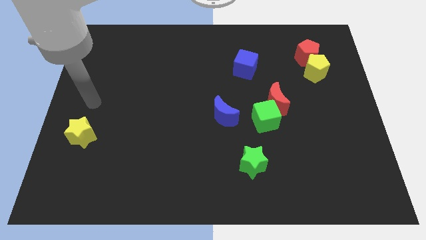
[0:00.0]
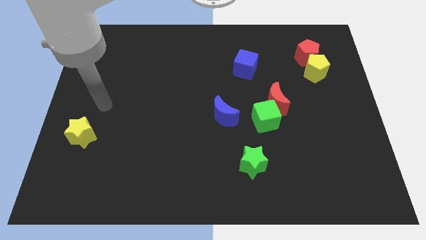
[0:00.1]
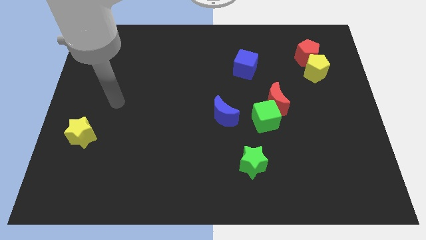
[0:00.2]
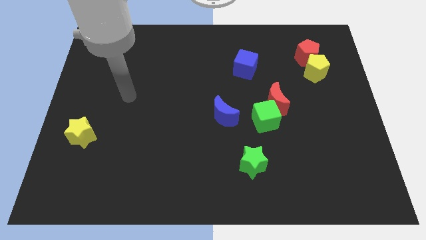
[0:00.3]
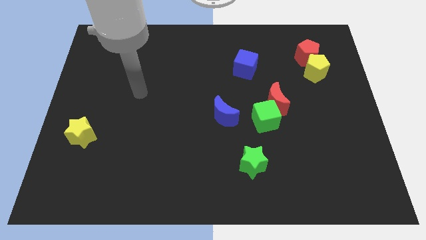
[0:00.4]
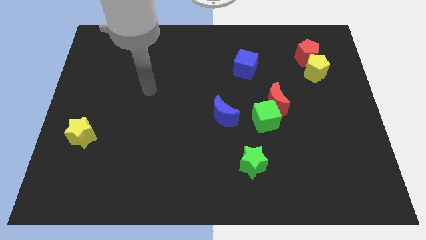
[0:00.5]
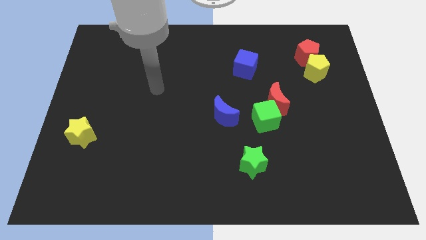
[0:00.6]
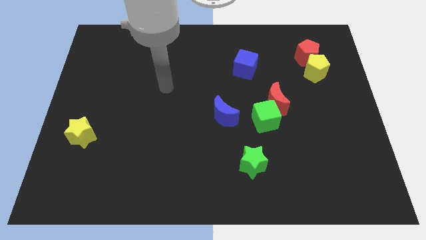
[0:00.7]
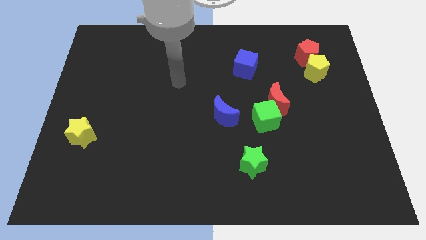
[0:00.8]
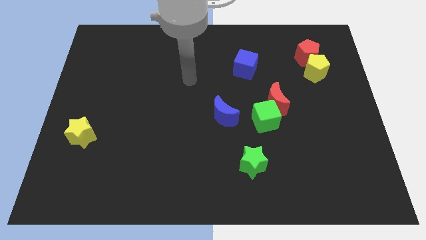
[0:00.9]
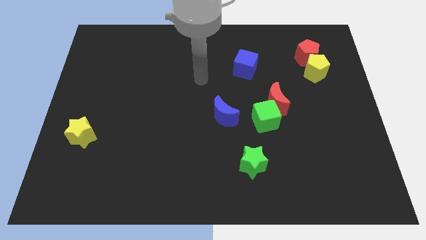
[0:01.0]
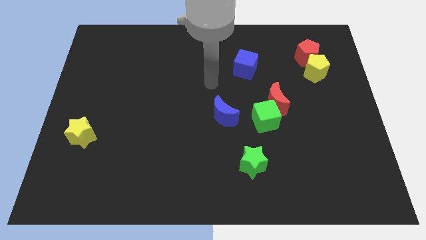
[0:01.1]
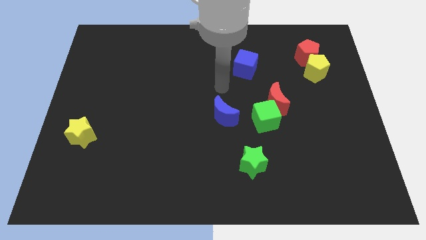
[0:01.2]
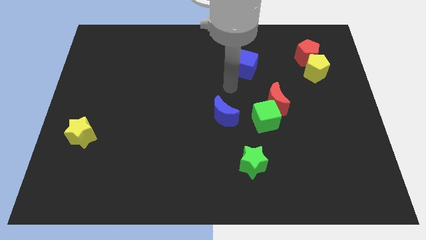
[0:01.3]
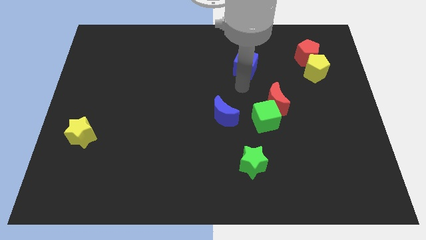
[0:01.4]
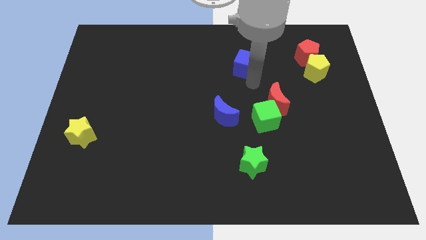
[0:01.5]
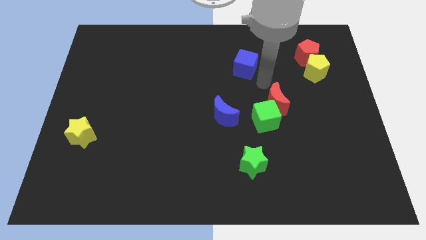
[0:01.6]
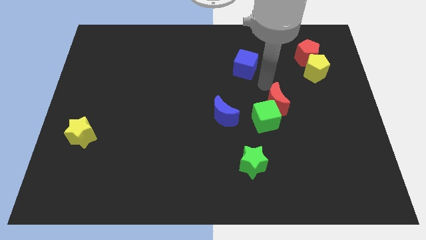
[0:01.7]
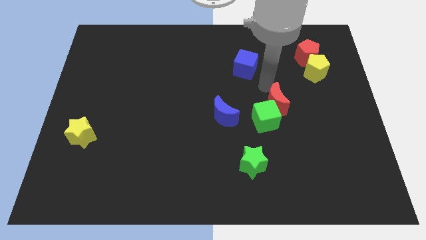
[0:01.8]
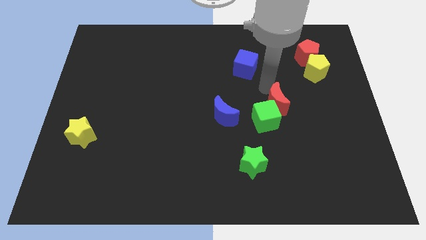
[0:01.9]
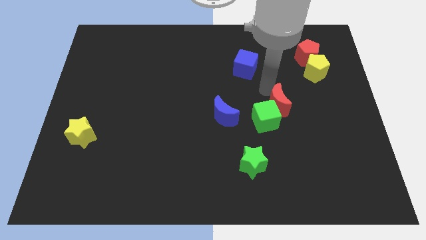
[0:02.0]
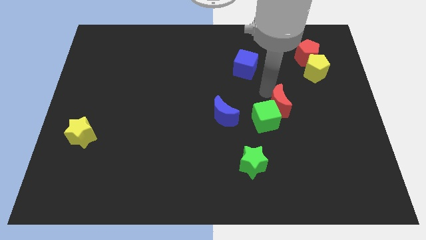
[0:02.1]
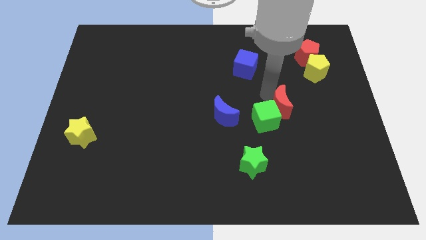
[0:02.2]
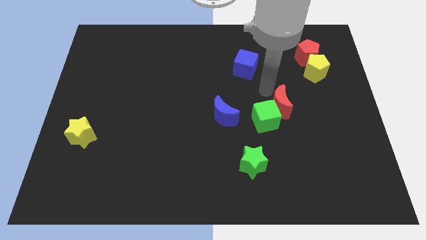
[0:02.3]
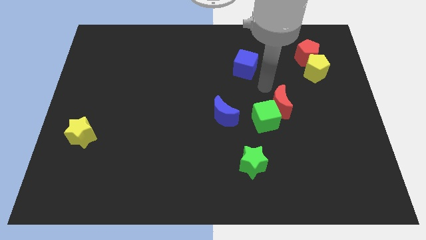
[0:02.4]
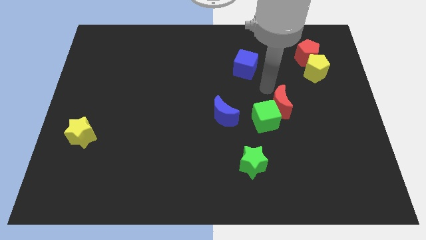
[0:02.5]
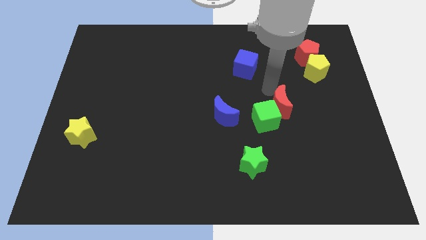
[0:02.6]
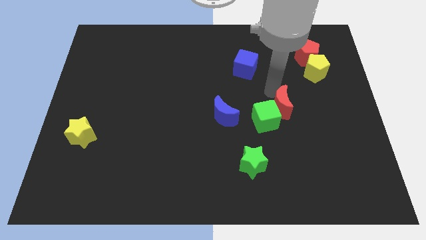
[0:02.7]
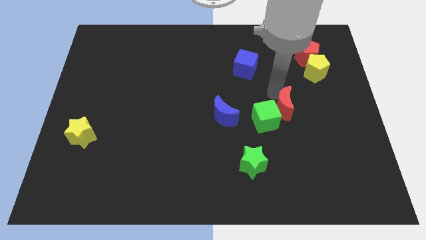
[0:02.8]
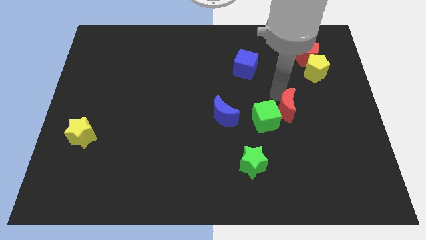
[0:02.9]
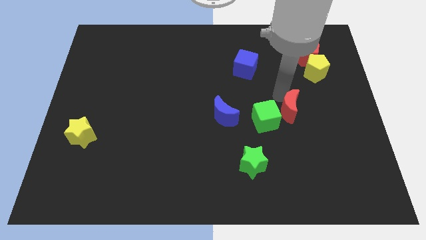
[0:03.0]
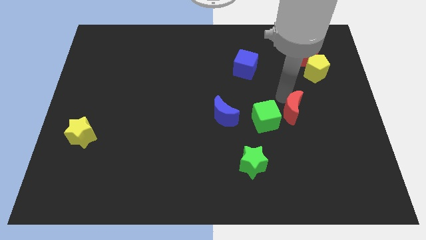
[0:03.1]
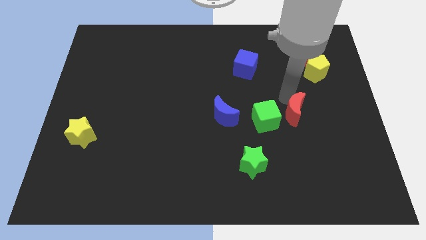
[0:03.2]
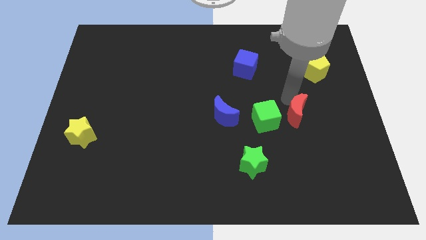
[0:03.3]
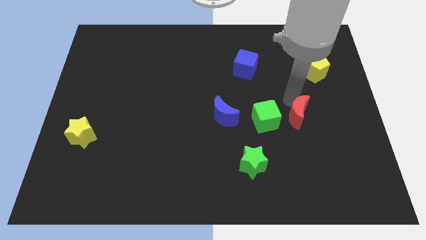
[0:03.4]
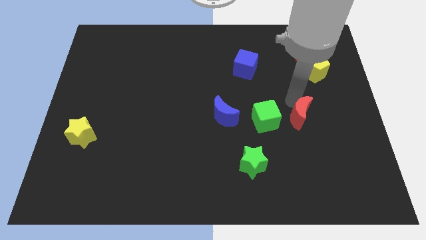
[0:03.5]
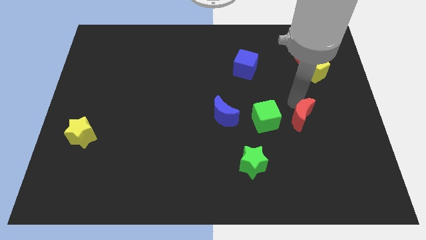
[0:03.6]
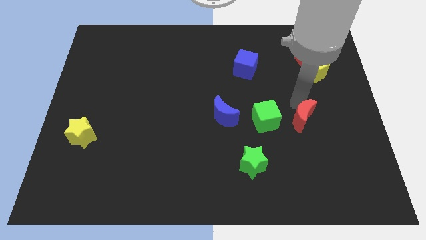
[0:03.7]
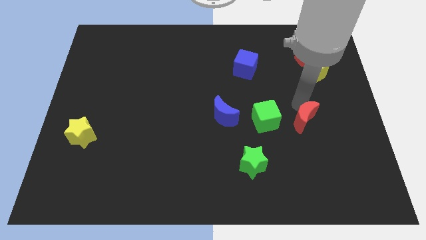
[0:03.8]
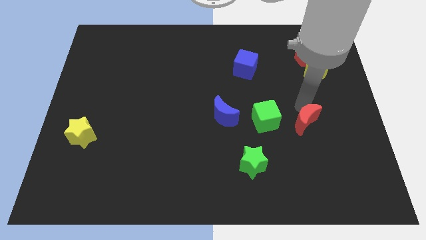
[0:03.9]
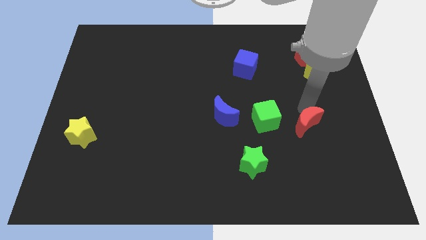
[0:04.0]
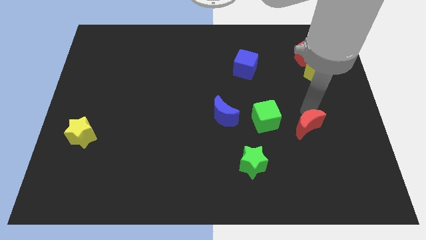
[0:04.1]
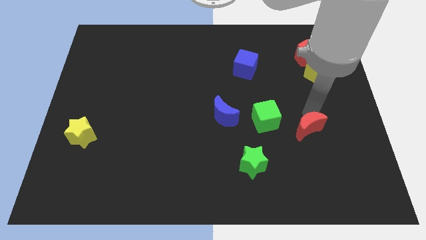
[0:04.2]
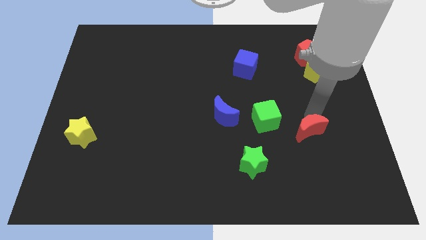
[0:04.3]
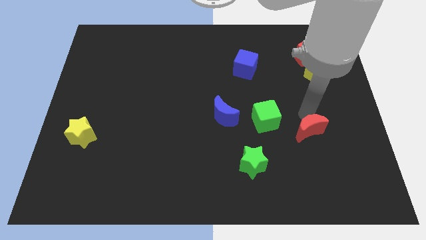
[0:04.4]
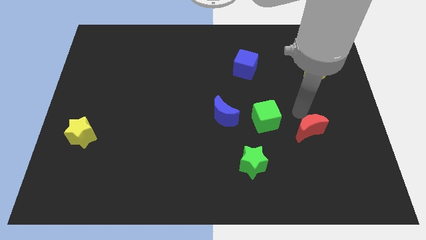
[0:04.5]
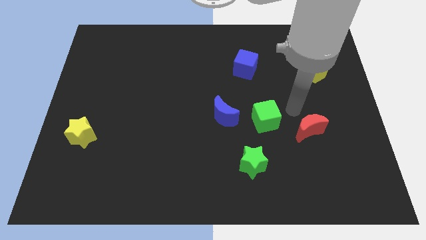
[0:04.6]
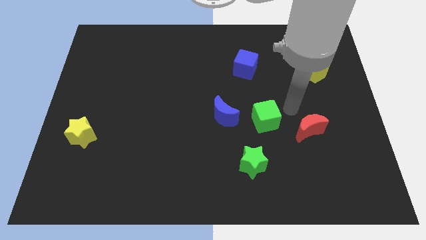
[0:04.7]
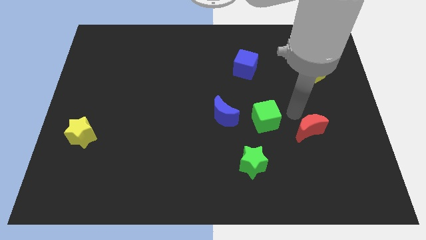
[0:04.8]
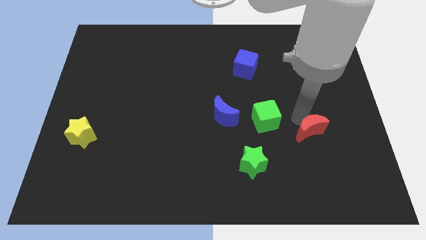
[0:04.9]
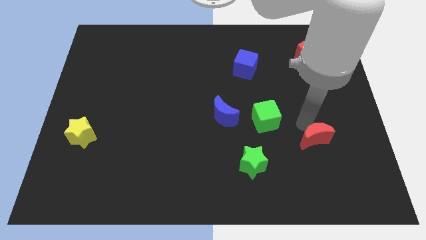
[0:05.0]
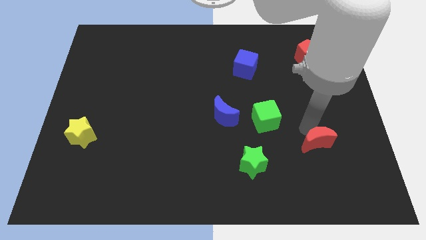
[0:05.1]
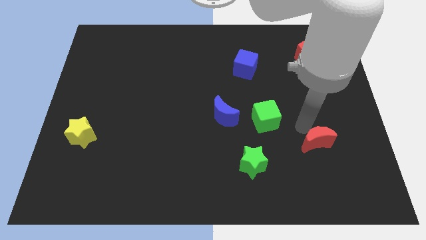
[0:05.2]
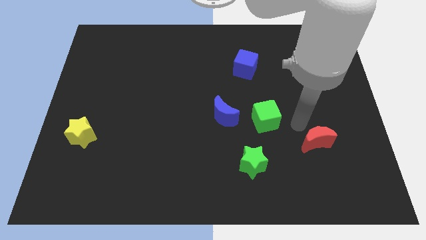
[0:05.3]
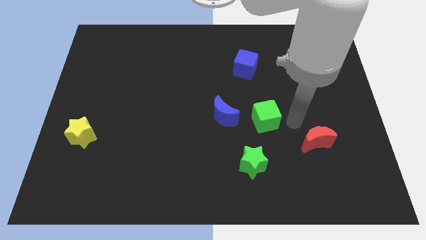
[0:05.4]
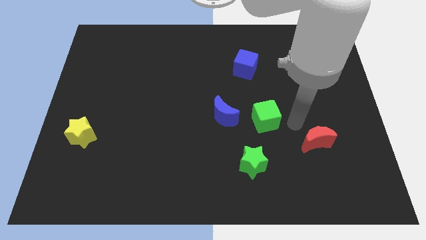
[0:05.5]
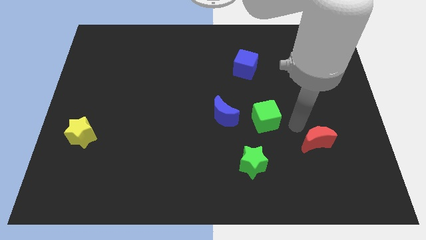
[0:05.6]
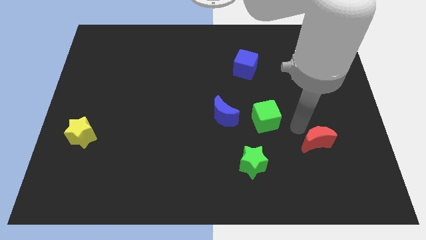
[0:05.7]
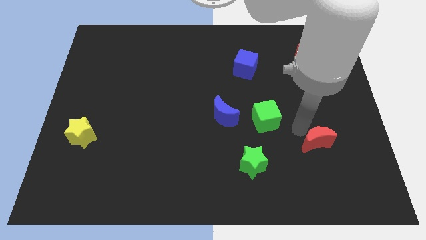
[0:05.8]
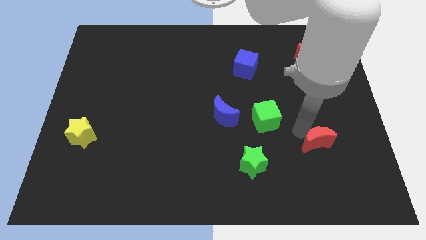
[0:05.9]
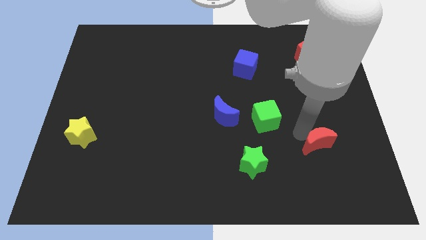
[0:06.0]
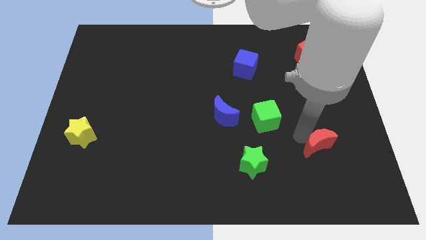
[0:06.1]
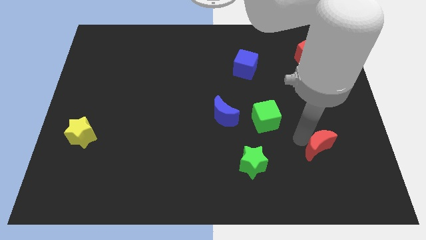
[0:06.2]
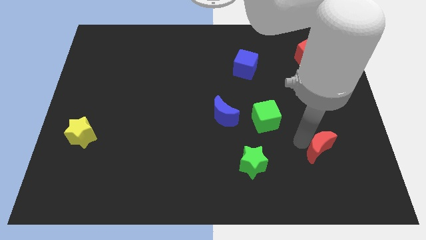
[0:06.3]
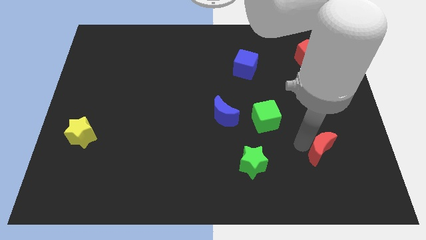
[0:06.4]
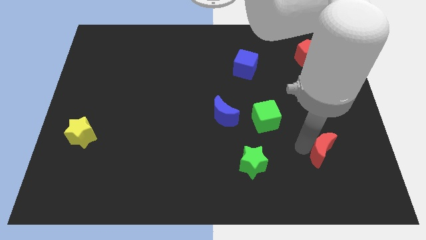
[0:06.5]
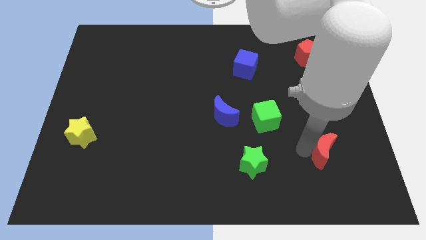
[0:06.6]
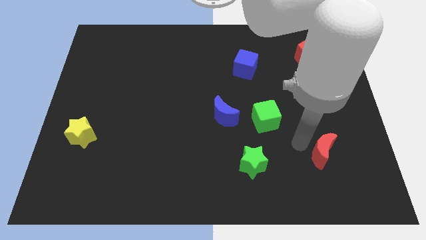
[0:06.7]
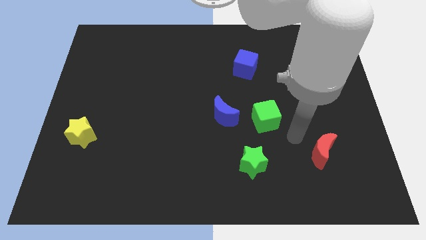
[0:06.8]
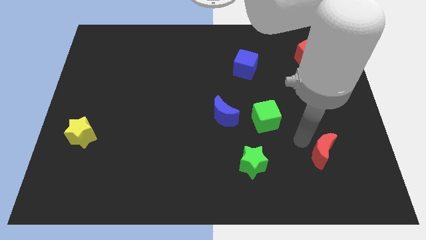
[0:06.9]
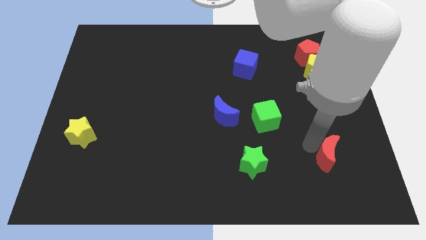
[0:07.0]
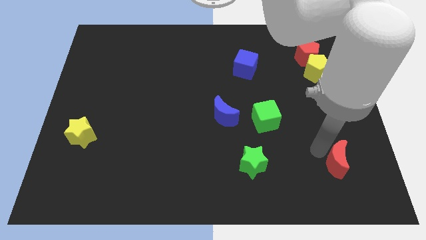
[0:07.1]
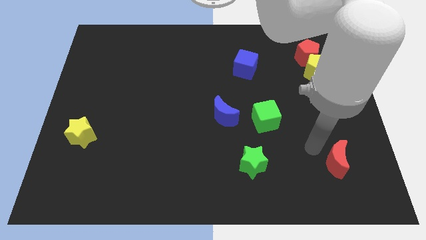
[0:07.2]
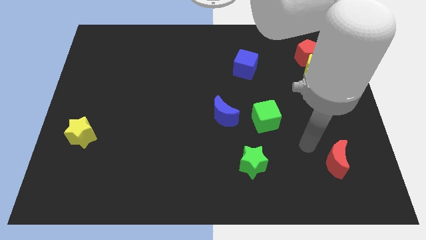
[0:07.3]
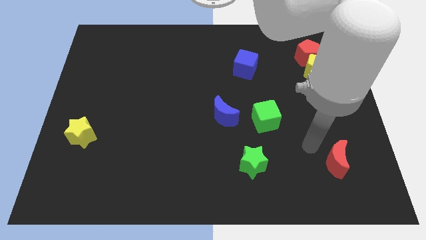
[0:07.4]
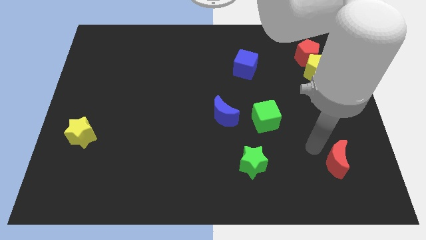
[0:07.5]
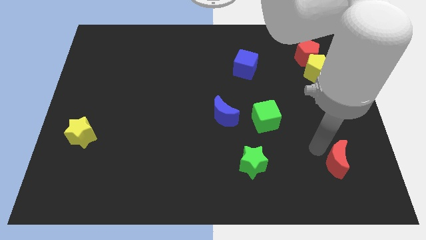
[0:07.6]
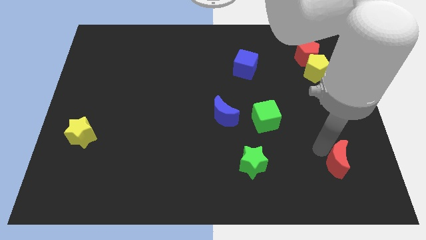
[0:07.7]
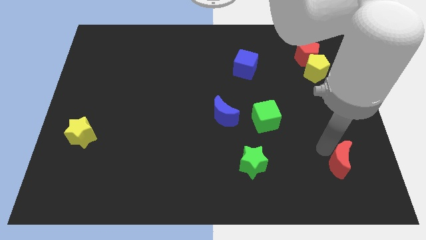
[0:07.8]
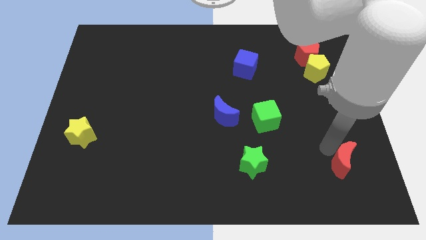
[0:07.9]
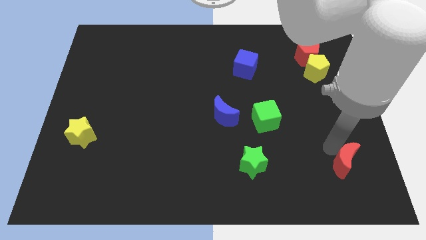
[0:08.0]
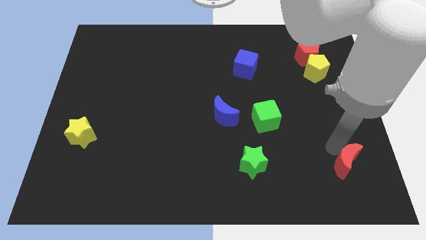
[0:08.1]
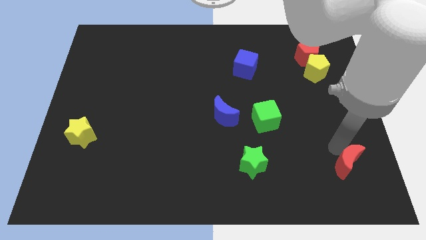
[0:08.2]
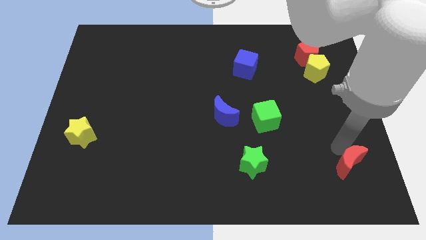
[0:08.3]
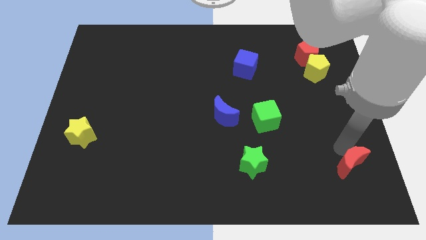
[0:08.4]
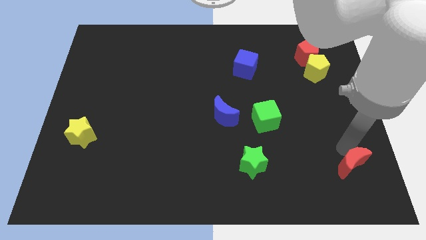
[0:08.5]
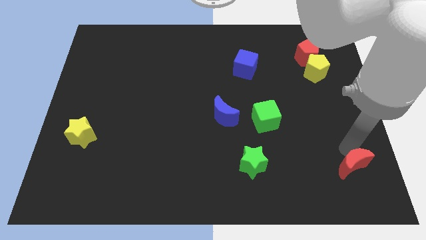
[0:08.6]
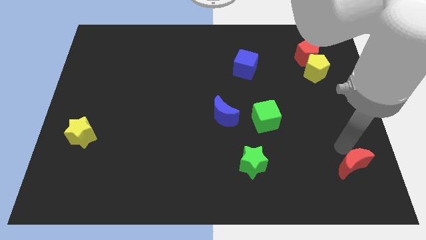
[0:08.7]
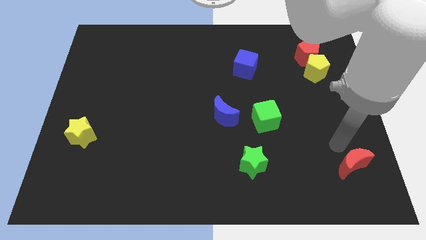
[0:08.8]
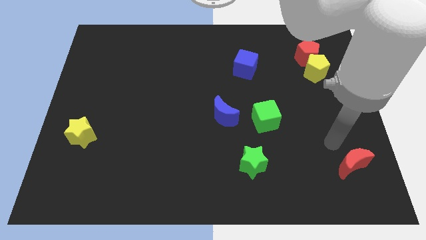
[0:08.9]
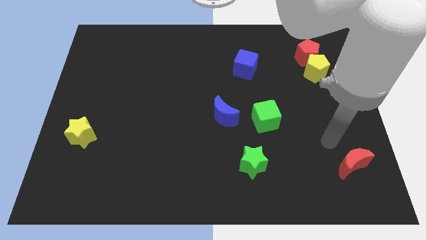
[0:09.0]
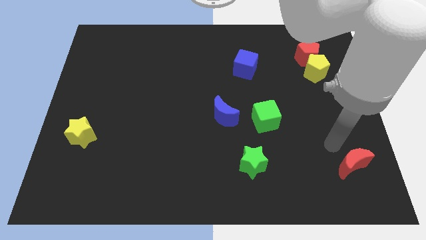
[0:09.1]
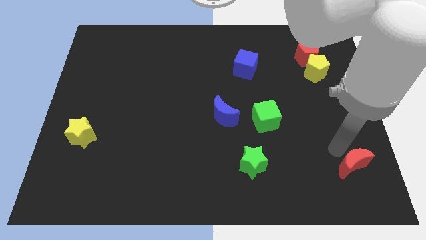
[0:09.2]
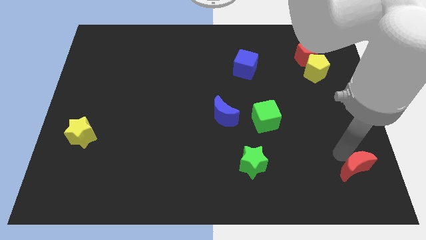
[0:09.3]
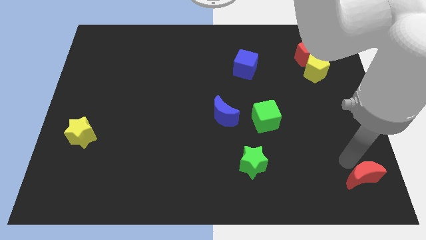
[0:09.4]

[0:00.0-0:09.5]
slide the red moon to the lower right corner
